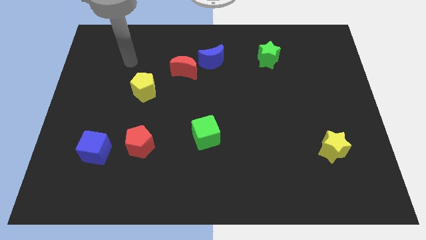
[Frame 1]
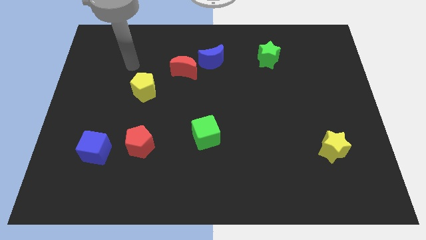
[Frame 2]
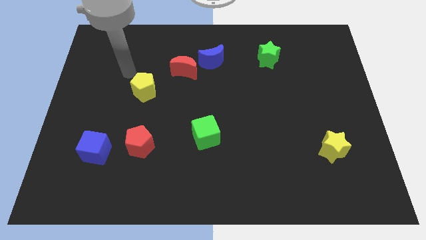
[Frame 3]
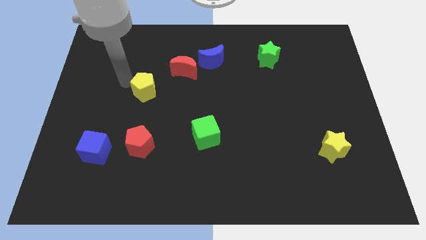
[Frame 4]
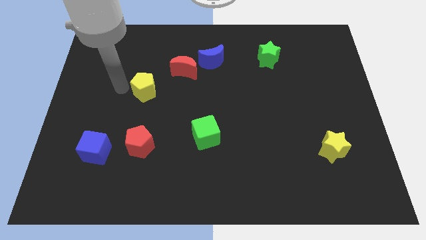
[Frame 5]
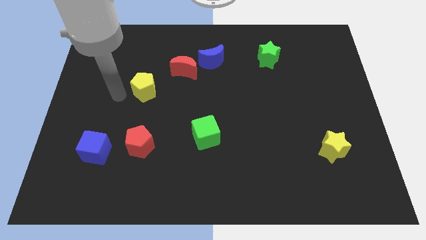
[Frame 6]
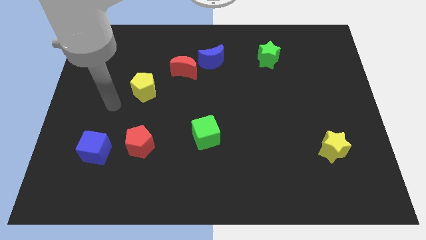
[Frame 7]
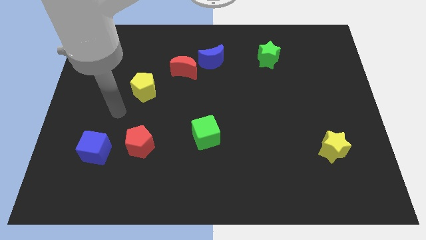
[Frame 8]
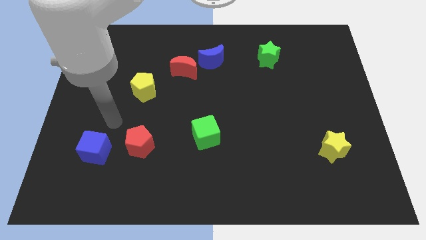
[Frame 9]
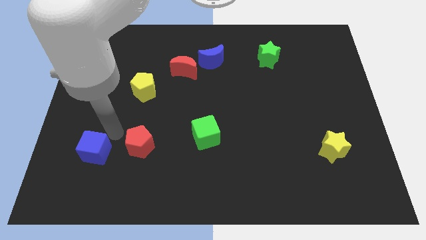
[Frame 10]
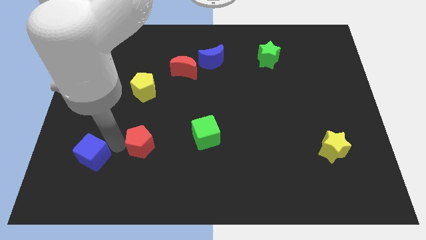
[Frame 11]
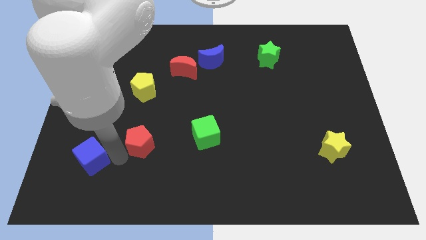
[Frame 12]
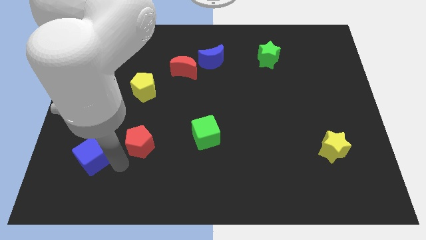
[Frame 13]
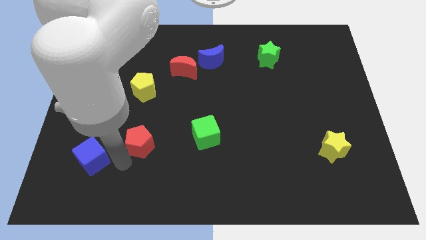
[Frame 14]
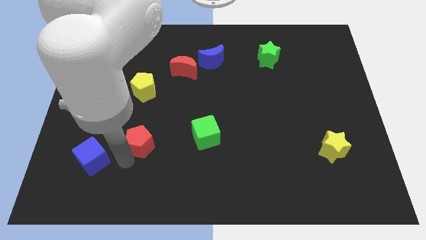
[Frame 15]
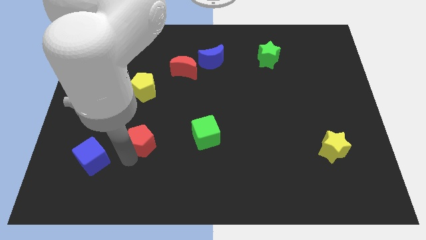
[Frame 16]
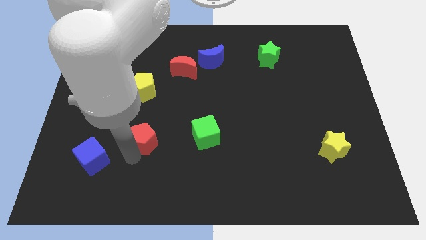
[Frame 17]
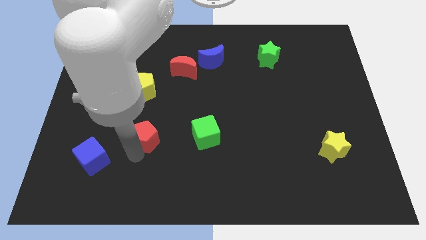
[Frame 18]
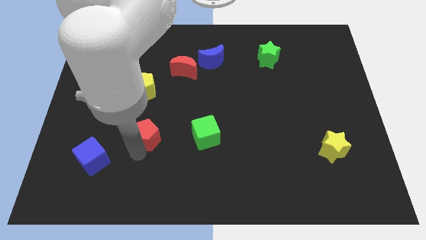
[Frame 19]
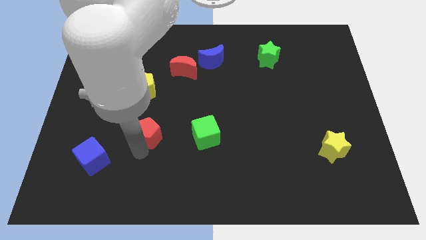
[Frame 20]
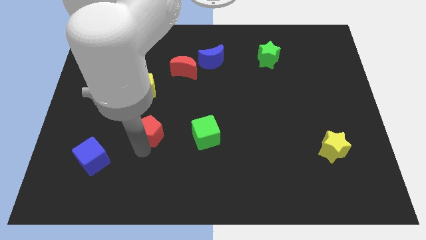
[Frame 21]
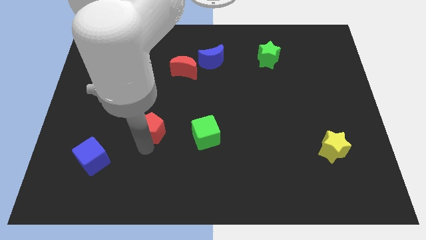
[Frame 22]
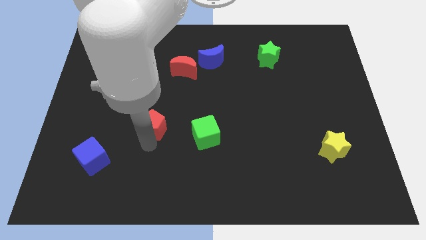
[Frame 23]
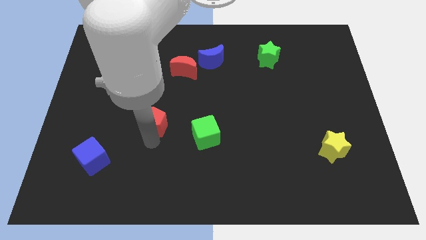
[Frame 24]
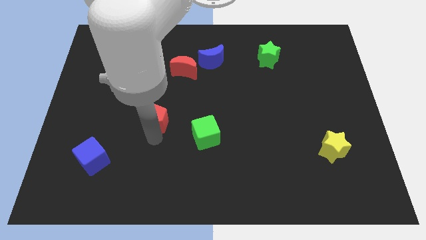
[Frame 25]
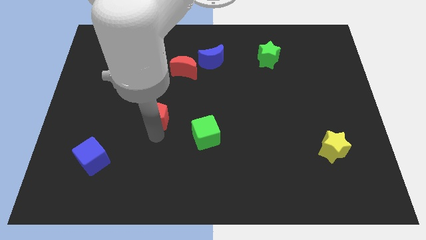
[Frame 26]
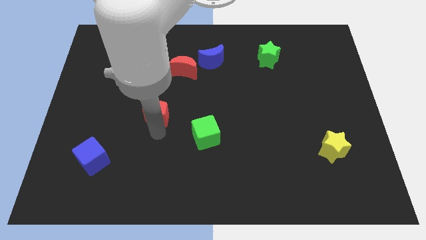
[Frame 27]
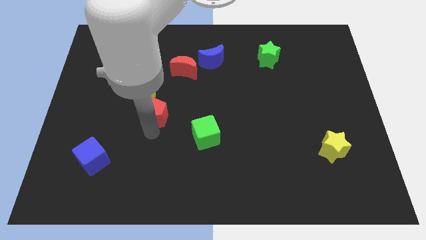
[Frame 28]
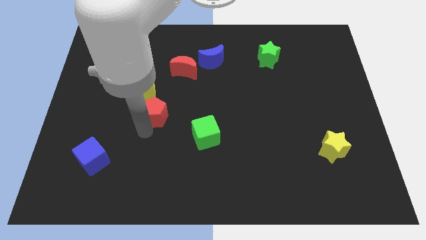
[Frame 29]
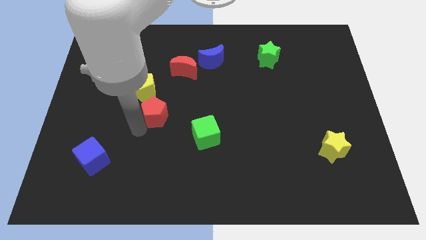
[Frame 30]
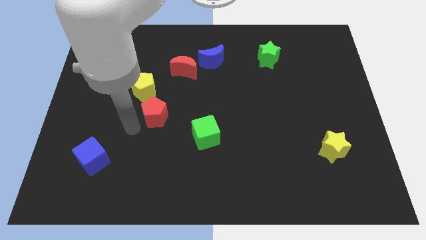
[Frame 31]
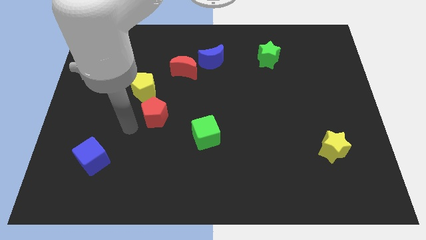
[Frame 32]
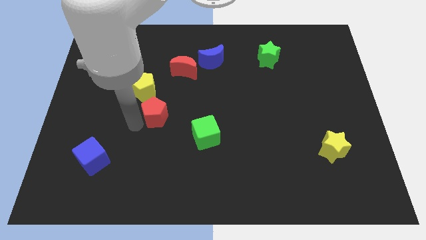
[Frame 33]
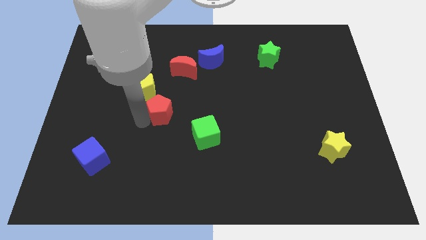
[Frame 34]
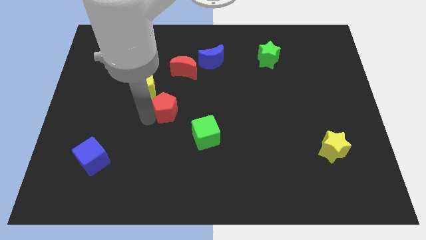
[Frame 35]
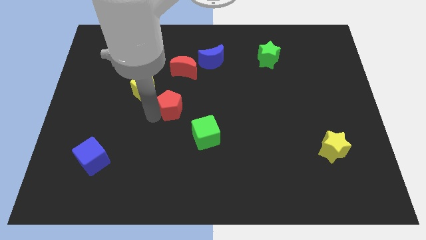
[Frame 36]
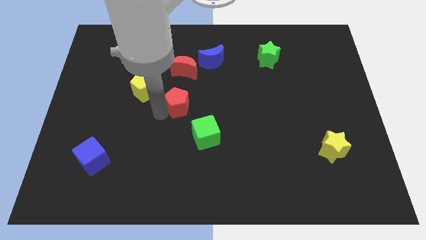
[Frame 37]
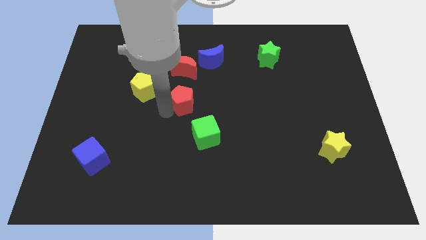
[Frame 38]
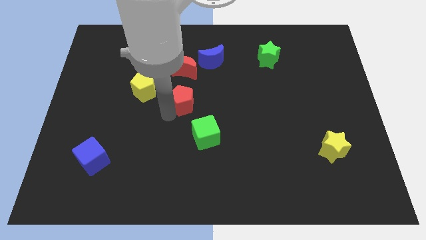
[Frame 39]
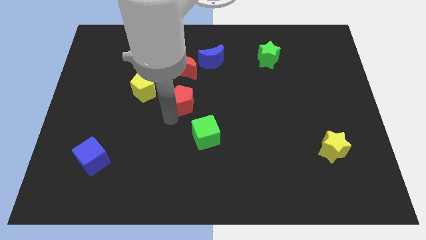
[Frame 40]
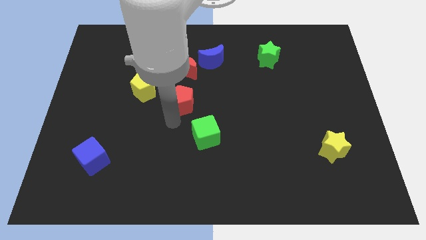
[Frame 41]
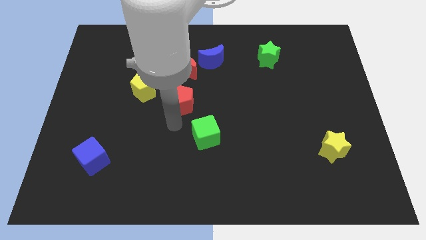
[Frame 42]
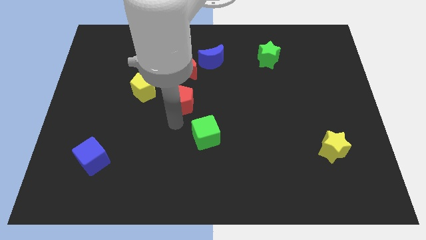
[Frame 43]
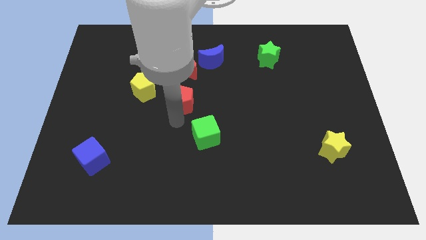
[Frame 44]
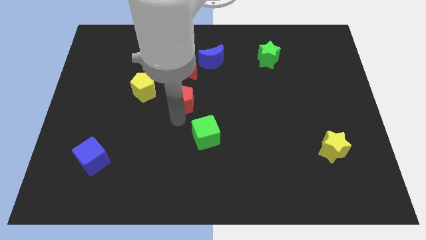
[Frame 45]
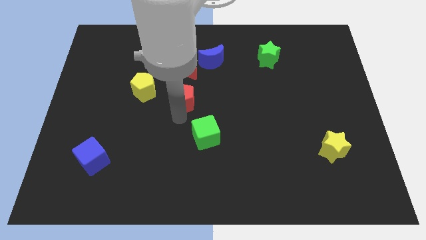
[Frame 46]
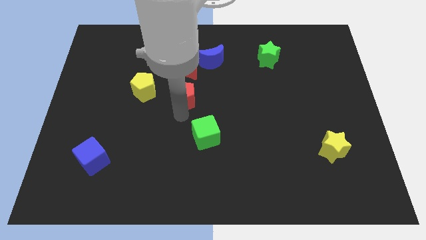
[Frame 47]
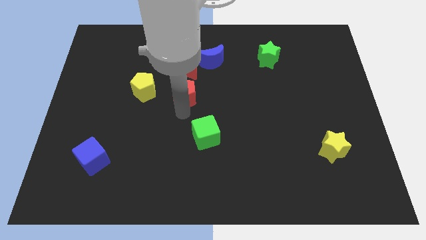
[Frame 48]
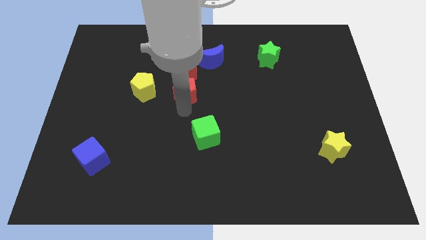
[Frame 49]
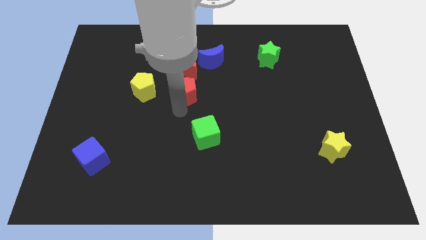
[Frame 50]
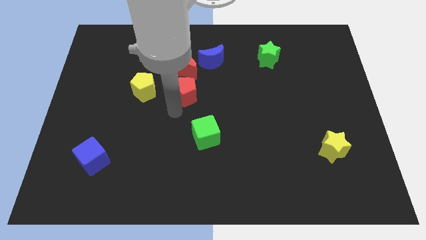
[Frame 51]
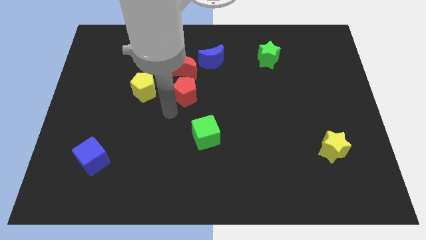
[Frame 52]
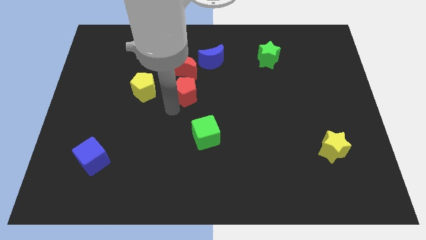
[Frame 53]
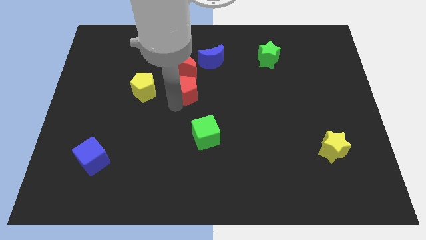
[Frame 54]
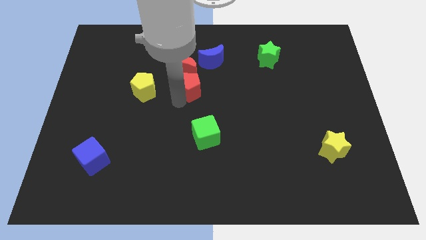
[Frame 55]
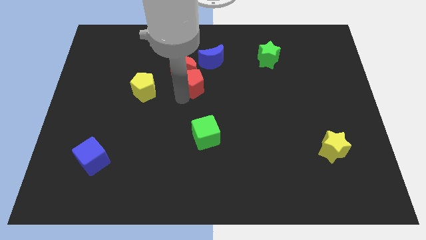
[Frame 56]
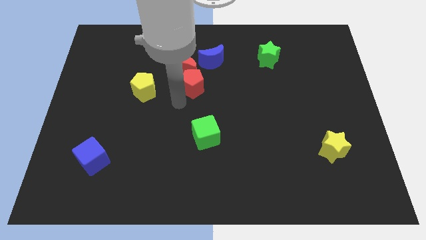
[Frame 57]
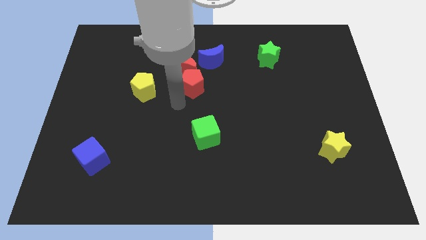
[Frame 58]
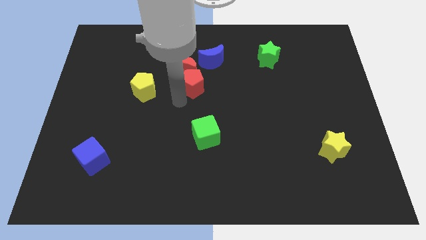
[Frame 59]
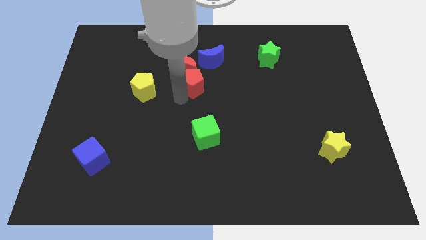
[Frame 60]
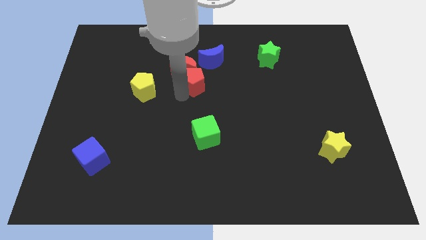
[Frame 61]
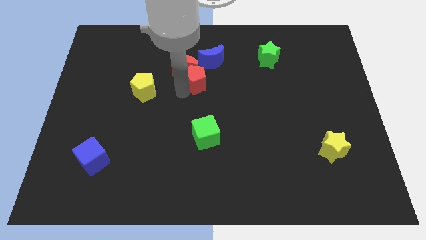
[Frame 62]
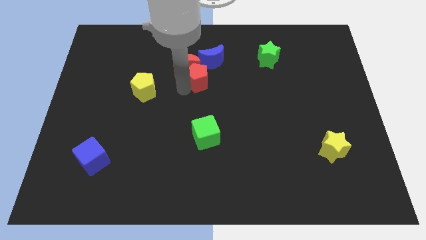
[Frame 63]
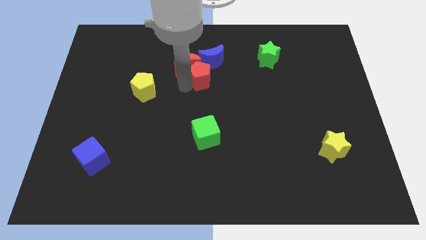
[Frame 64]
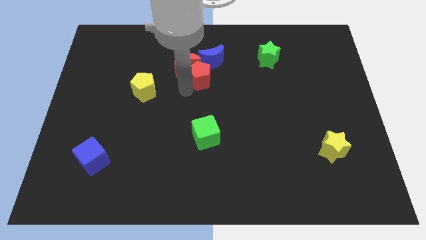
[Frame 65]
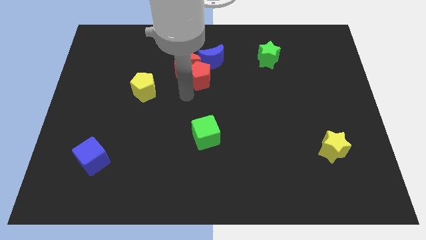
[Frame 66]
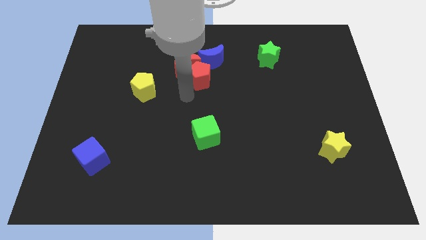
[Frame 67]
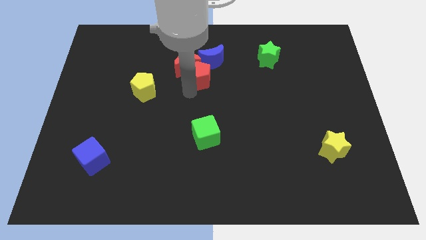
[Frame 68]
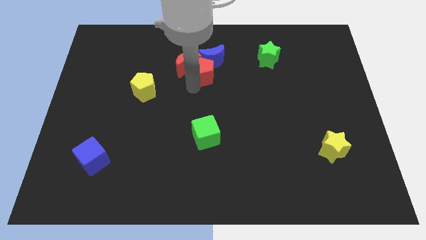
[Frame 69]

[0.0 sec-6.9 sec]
put the red pentagon to the blue moon

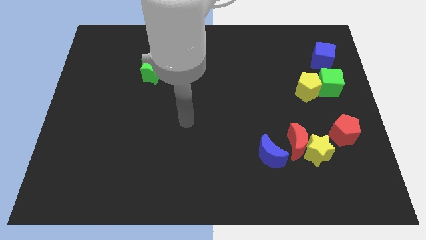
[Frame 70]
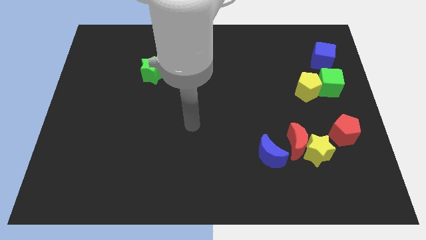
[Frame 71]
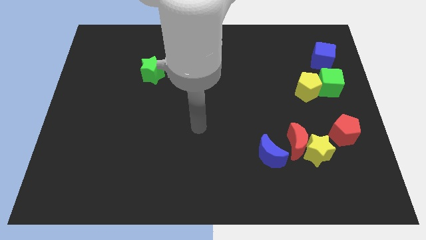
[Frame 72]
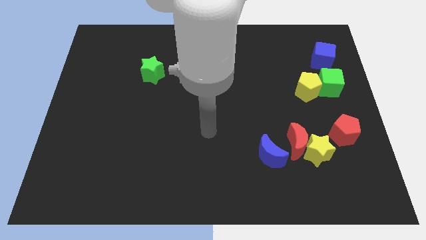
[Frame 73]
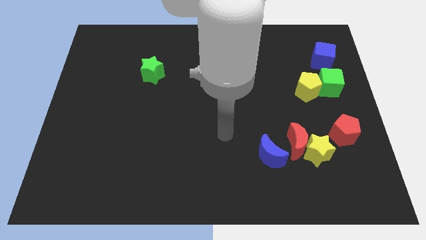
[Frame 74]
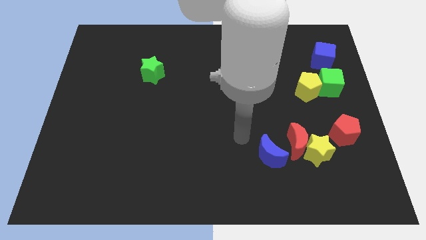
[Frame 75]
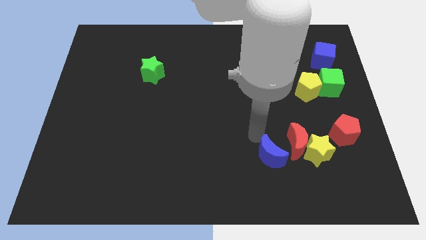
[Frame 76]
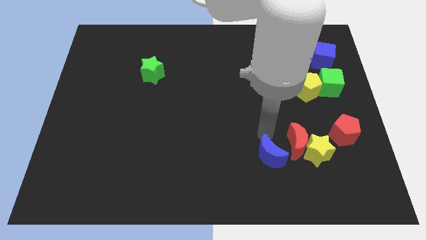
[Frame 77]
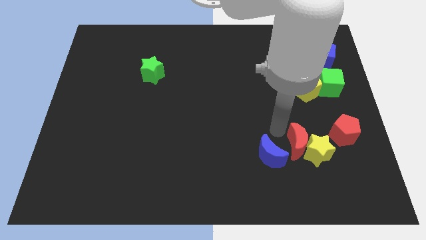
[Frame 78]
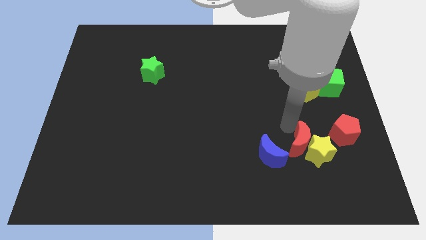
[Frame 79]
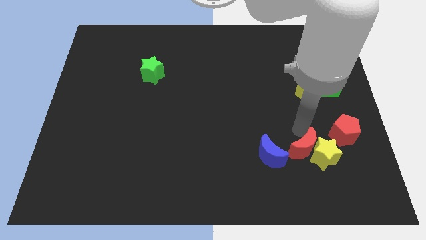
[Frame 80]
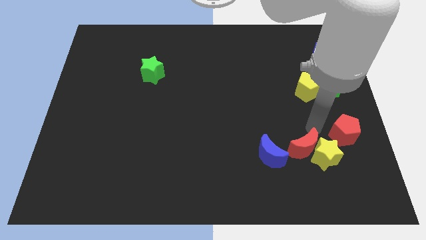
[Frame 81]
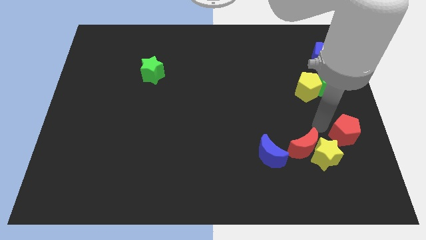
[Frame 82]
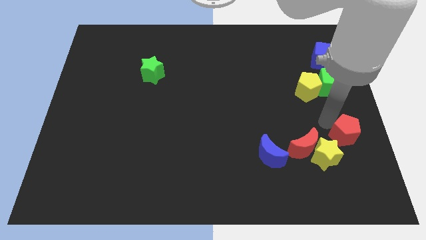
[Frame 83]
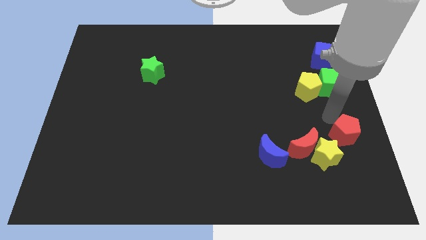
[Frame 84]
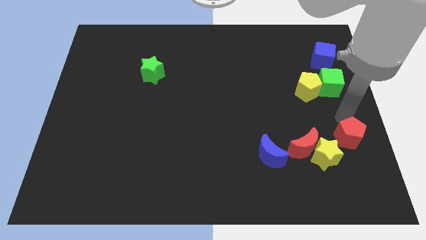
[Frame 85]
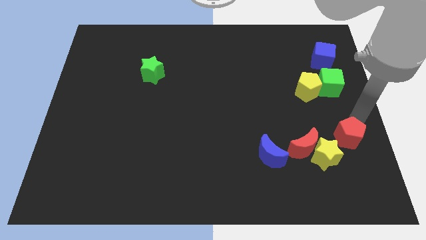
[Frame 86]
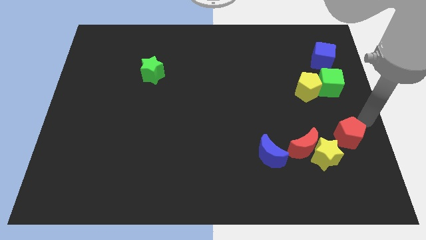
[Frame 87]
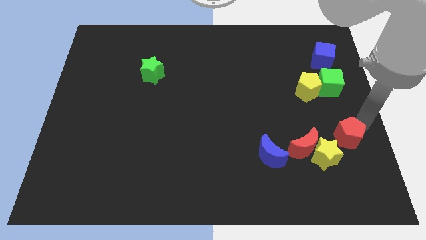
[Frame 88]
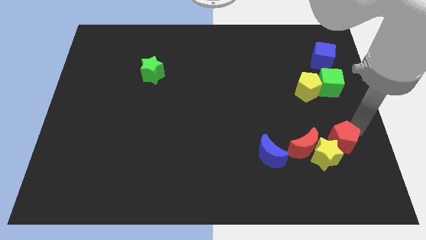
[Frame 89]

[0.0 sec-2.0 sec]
slide the red pentagon close to the yellow star
